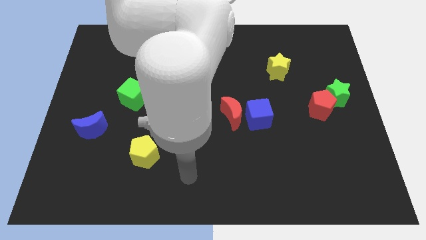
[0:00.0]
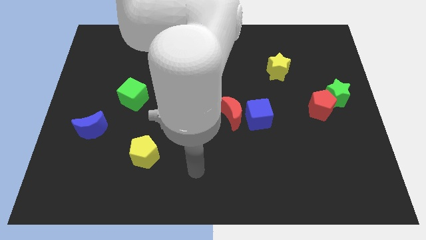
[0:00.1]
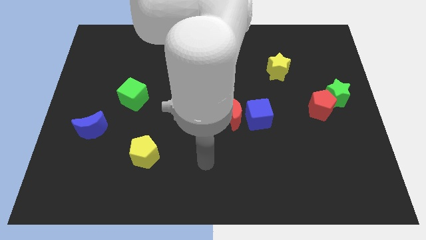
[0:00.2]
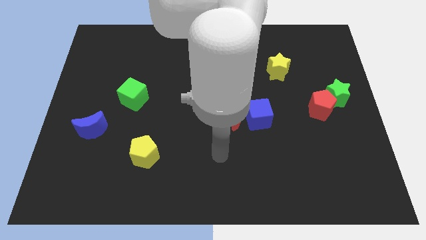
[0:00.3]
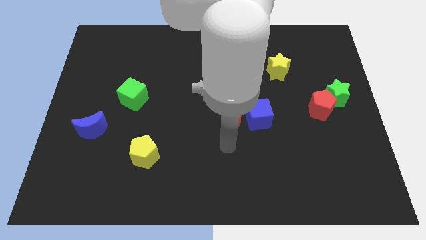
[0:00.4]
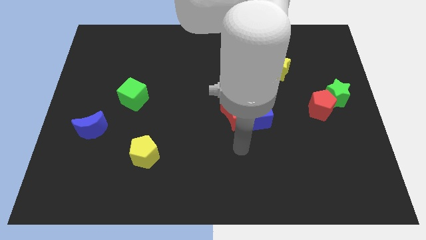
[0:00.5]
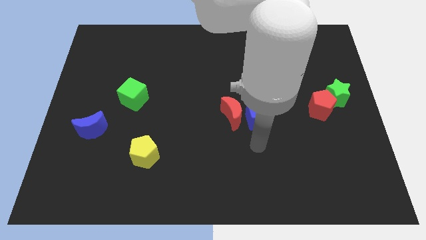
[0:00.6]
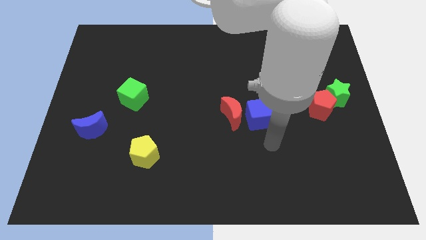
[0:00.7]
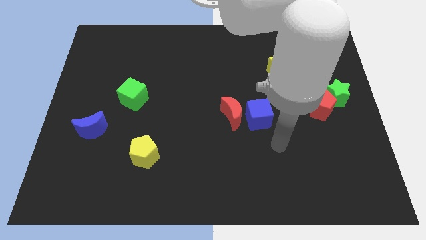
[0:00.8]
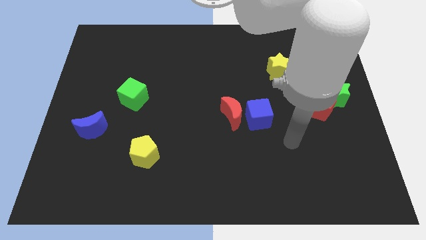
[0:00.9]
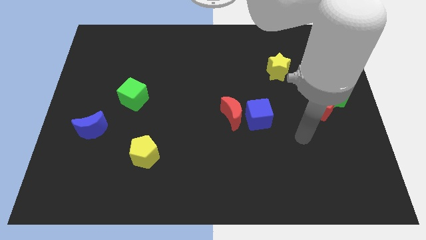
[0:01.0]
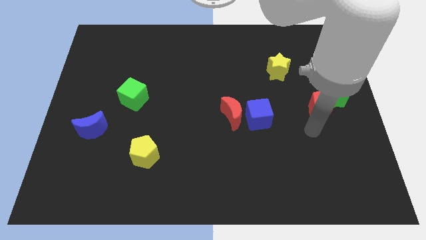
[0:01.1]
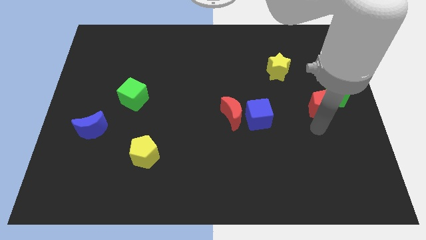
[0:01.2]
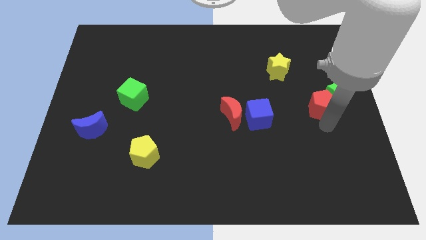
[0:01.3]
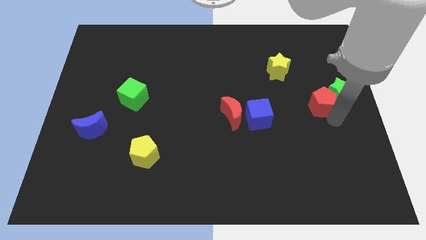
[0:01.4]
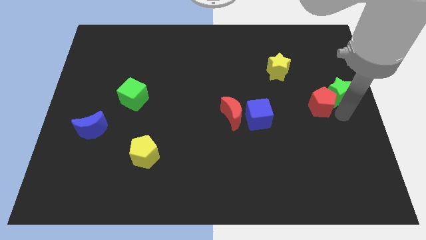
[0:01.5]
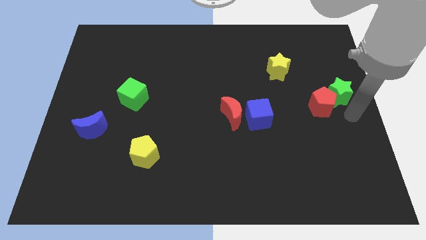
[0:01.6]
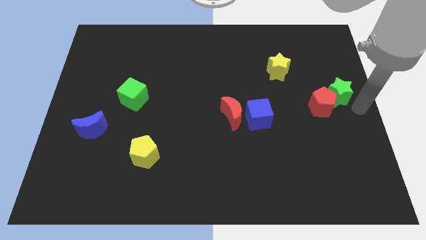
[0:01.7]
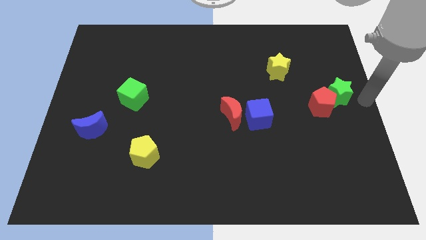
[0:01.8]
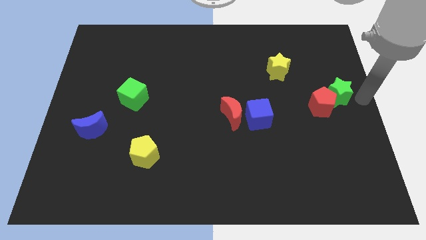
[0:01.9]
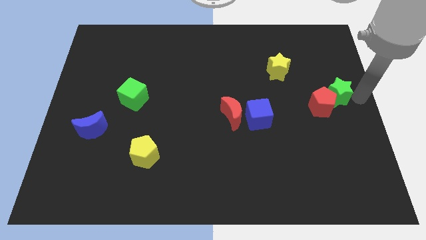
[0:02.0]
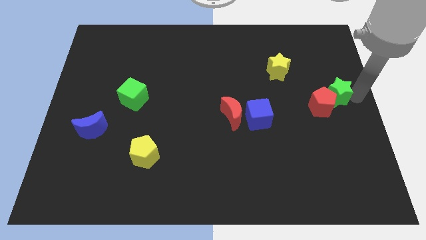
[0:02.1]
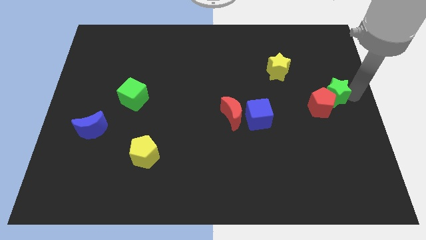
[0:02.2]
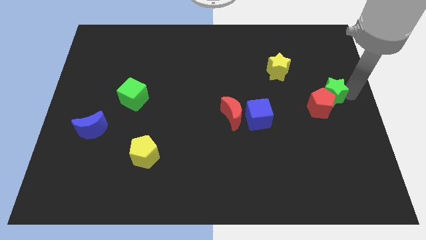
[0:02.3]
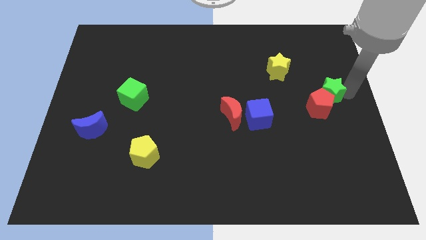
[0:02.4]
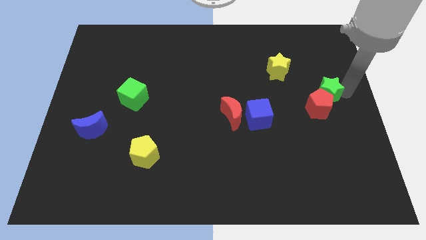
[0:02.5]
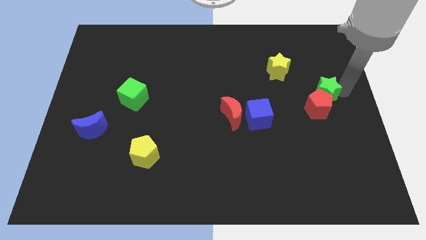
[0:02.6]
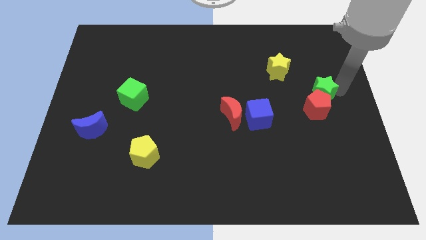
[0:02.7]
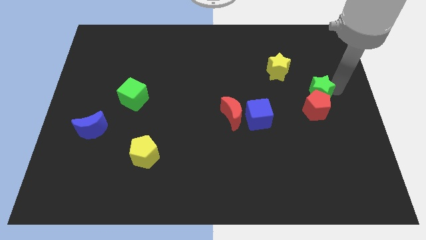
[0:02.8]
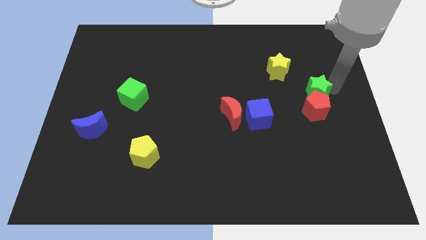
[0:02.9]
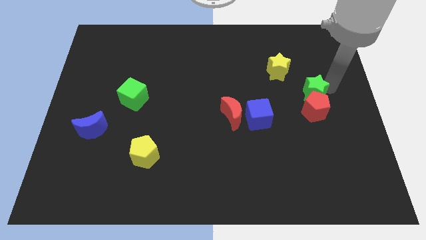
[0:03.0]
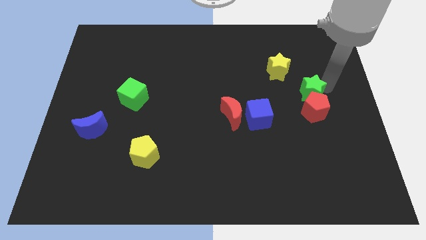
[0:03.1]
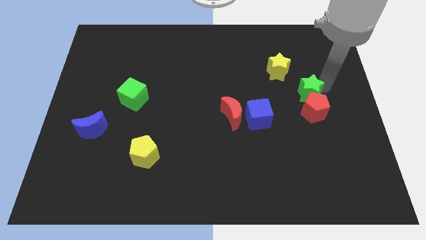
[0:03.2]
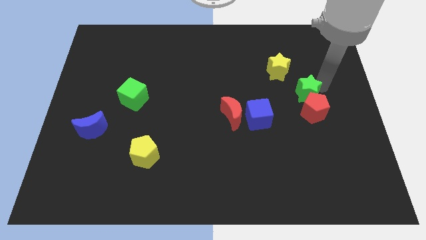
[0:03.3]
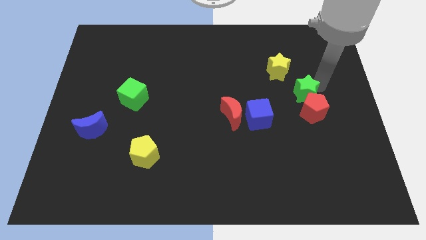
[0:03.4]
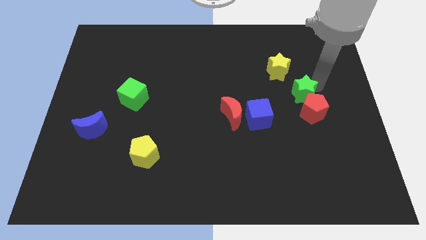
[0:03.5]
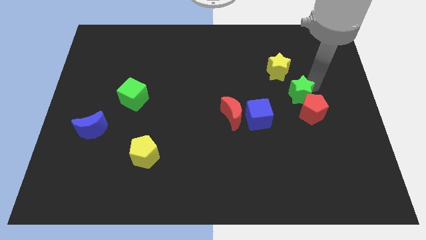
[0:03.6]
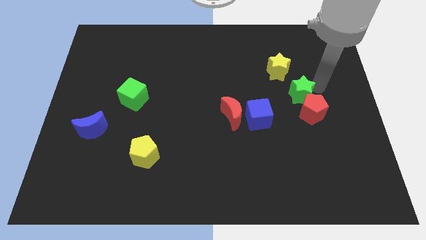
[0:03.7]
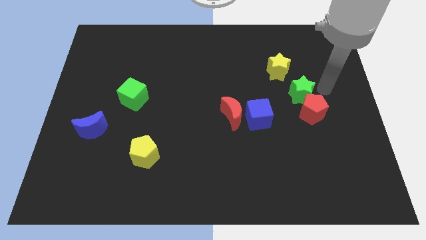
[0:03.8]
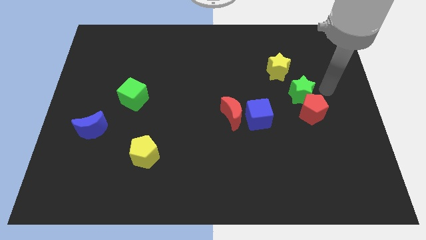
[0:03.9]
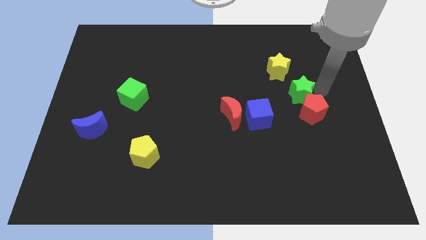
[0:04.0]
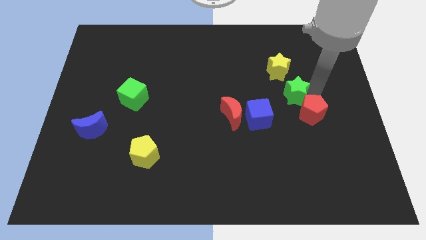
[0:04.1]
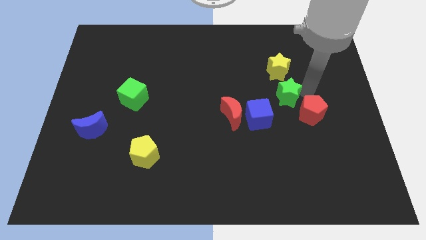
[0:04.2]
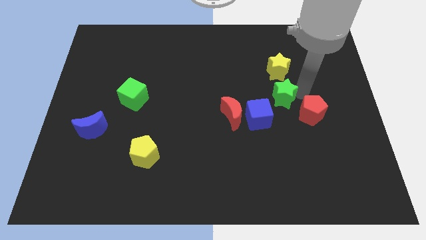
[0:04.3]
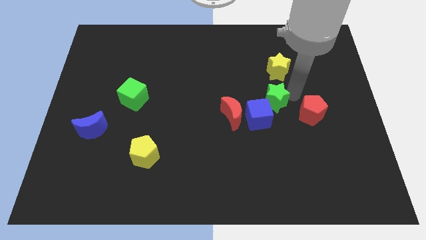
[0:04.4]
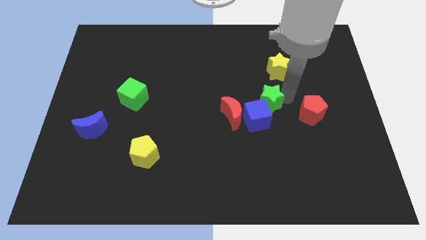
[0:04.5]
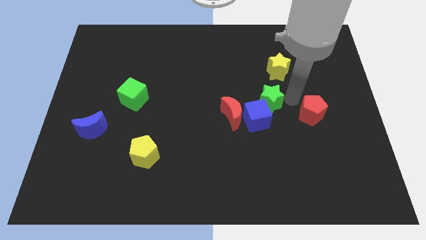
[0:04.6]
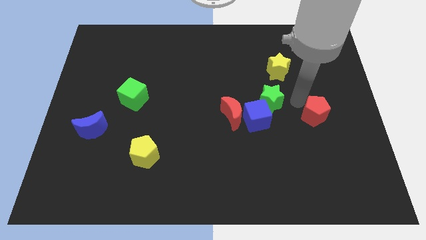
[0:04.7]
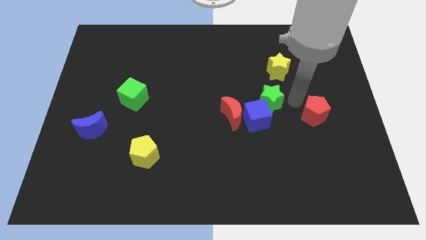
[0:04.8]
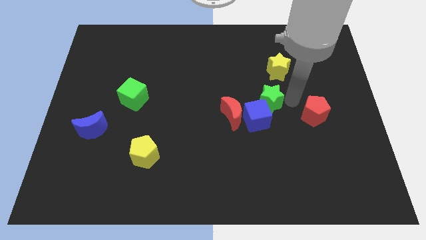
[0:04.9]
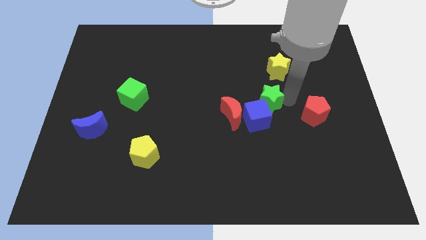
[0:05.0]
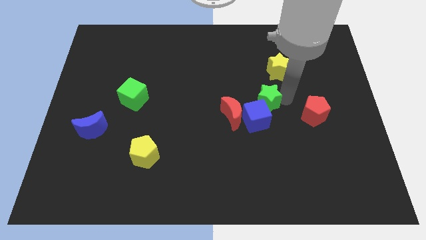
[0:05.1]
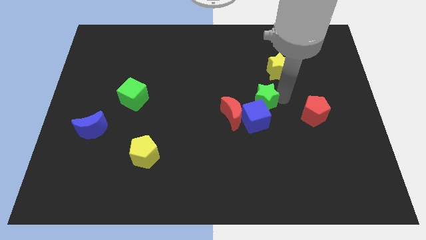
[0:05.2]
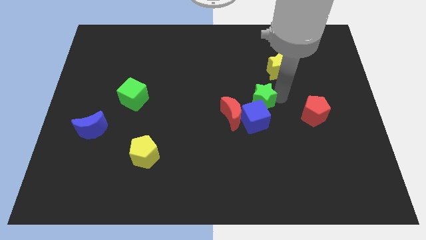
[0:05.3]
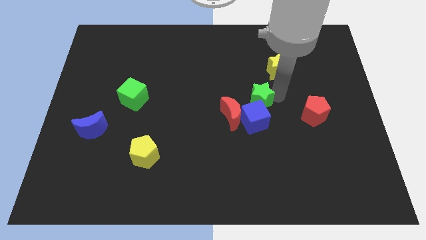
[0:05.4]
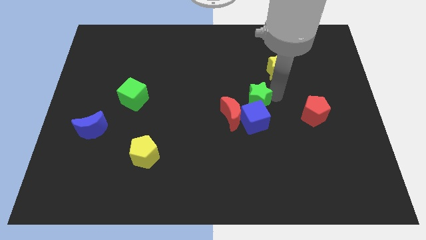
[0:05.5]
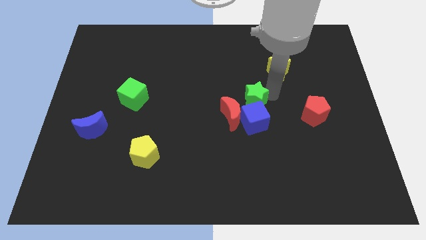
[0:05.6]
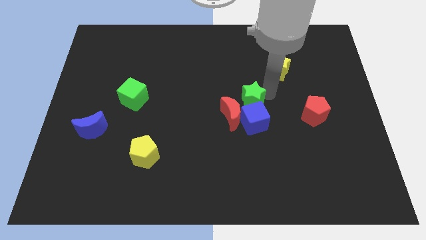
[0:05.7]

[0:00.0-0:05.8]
push the green star left

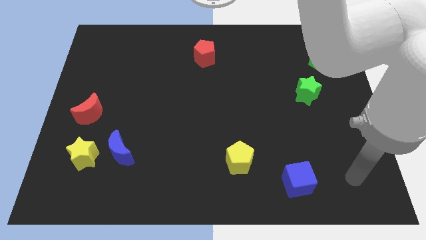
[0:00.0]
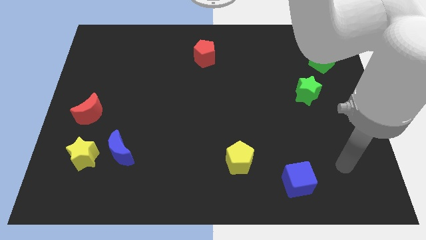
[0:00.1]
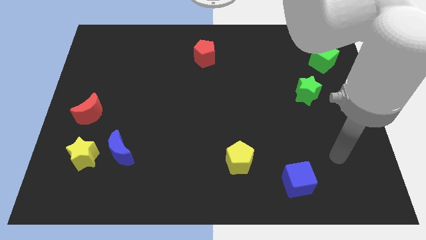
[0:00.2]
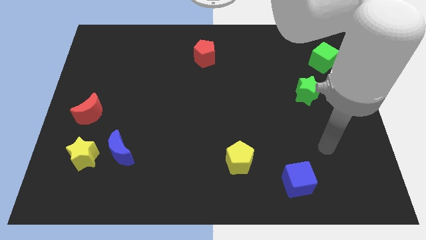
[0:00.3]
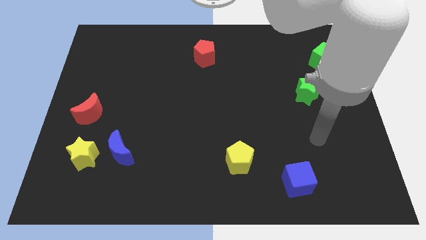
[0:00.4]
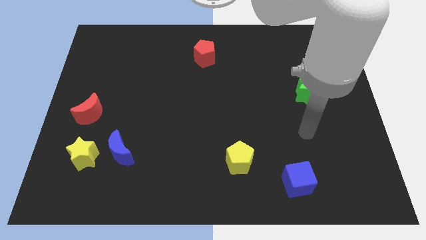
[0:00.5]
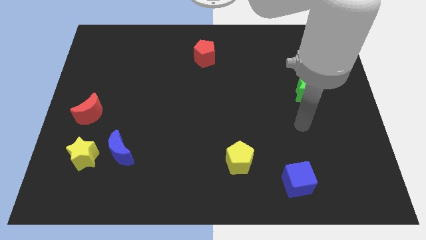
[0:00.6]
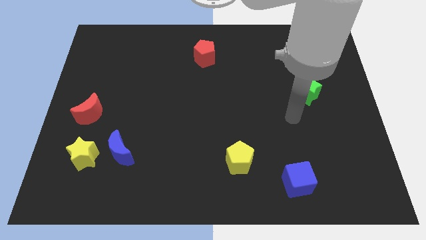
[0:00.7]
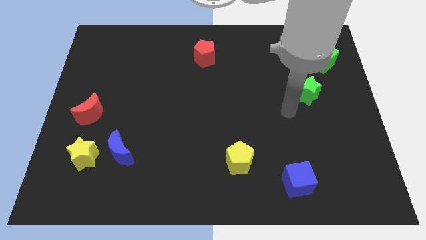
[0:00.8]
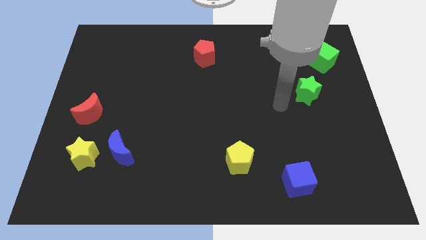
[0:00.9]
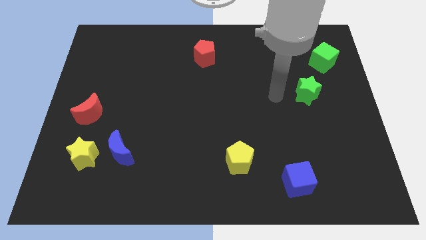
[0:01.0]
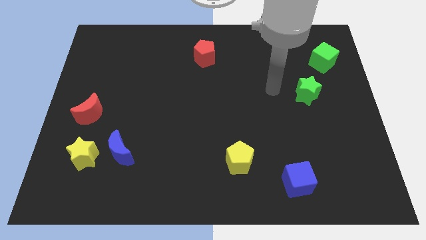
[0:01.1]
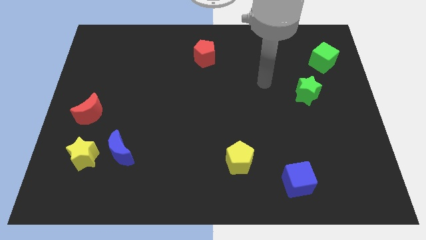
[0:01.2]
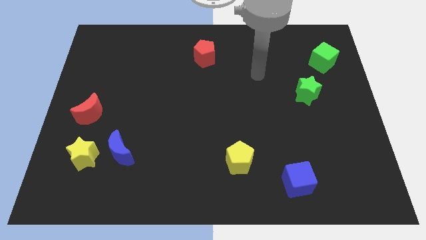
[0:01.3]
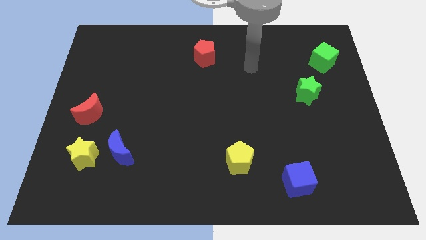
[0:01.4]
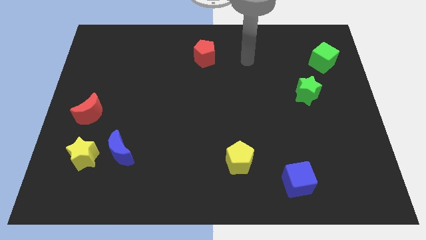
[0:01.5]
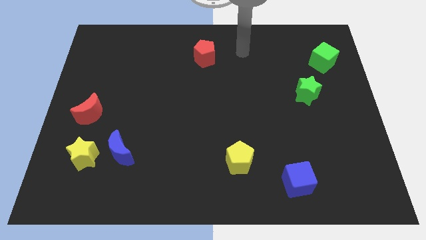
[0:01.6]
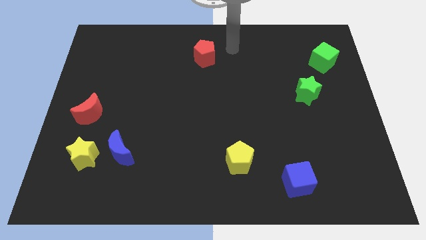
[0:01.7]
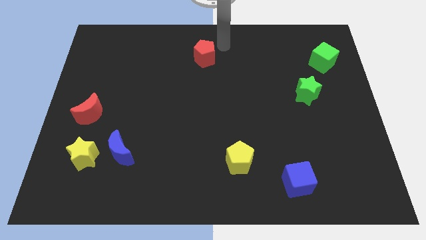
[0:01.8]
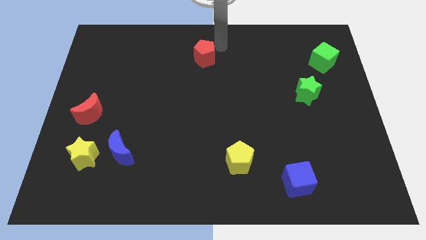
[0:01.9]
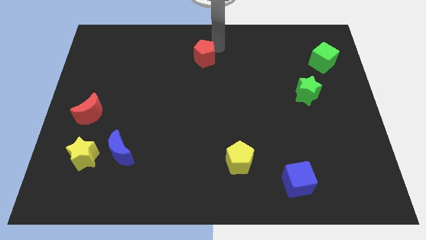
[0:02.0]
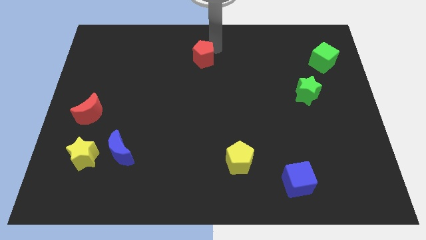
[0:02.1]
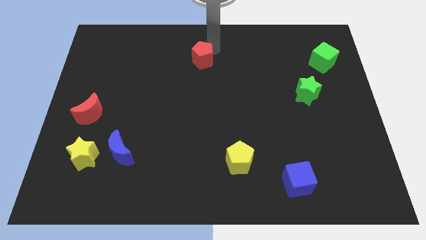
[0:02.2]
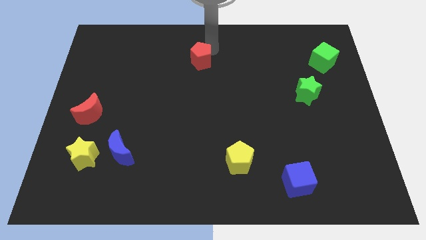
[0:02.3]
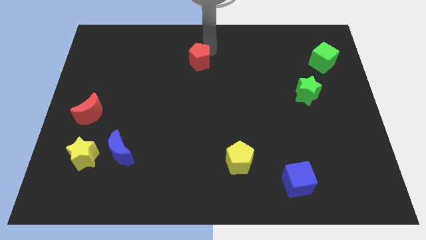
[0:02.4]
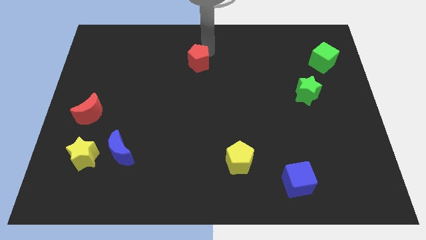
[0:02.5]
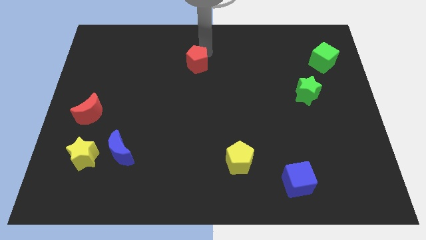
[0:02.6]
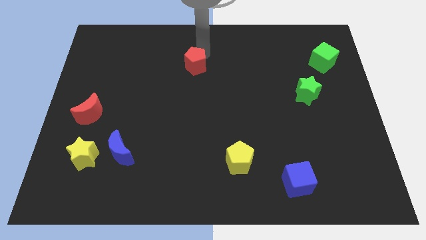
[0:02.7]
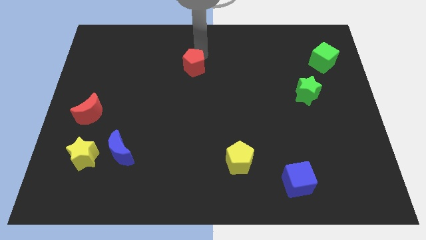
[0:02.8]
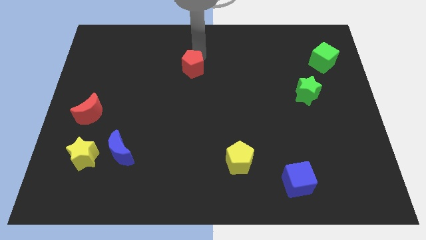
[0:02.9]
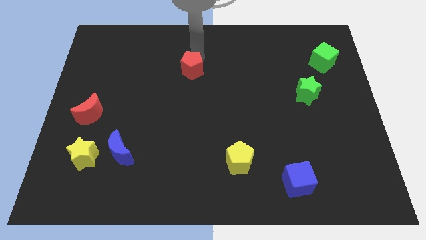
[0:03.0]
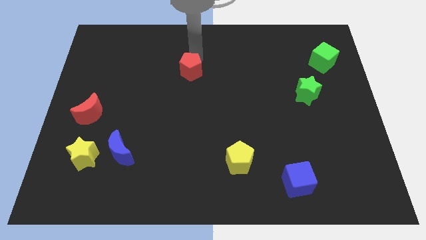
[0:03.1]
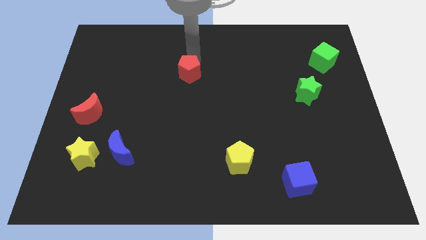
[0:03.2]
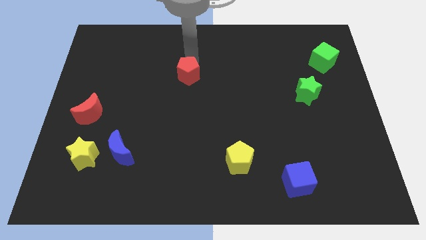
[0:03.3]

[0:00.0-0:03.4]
push the red pentagon a little down and then to the left
